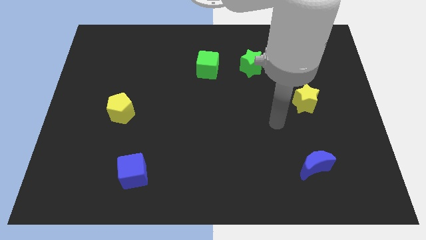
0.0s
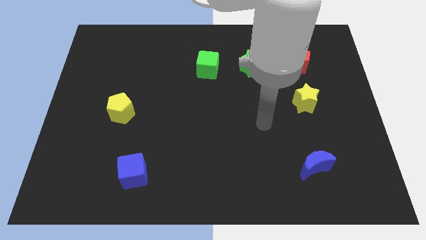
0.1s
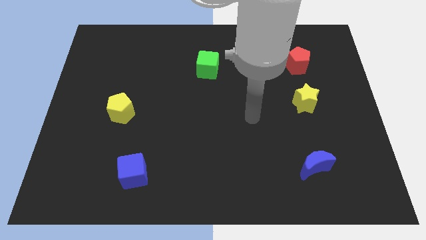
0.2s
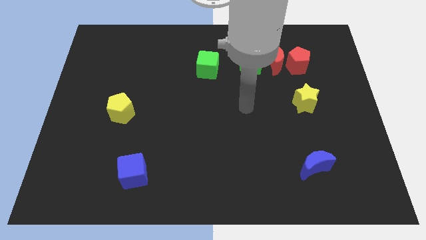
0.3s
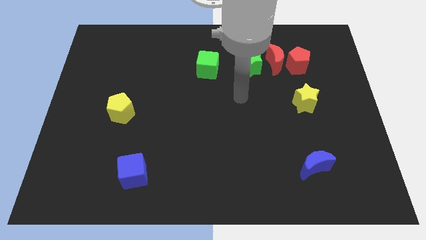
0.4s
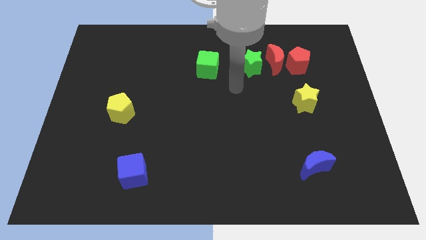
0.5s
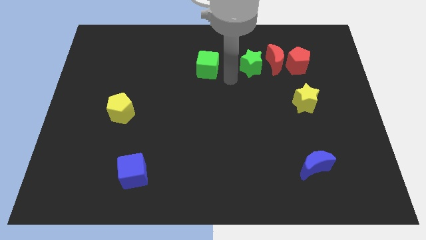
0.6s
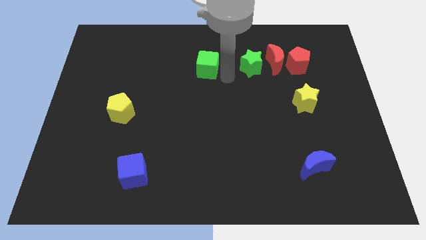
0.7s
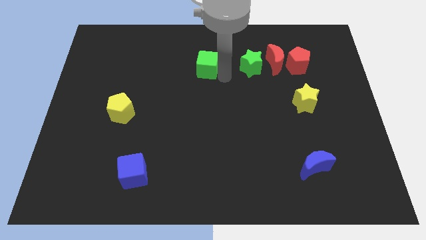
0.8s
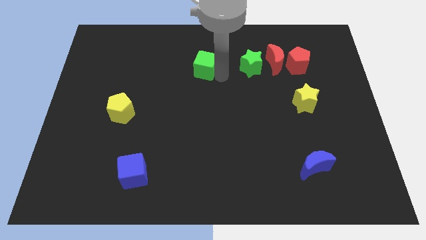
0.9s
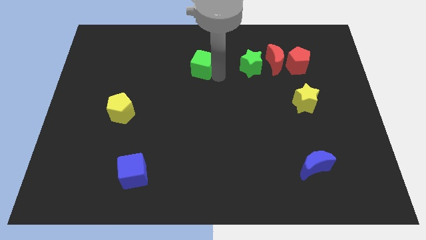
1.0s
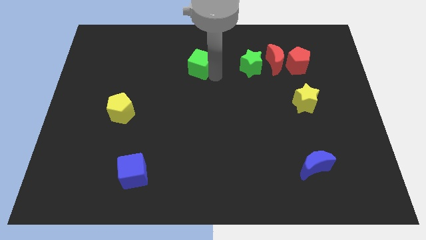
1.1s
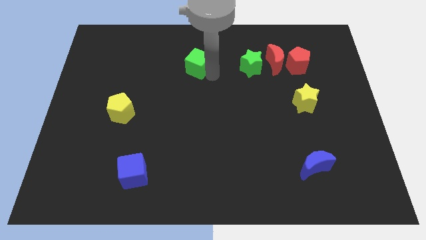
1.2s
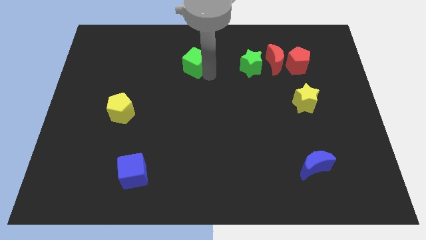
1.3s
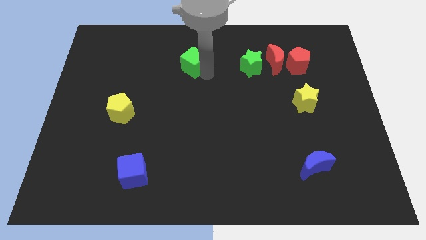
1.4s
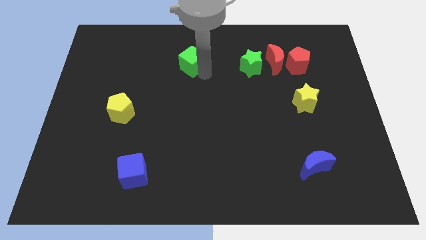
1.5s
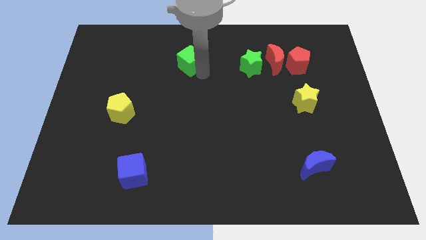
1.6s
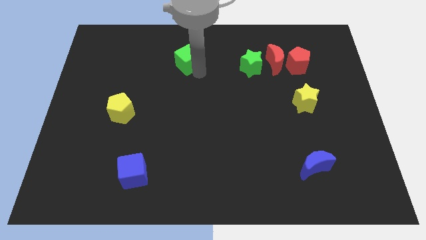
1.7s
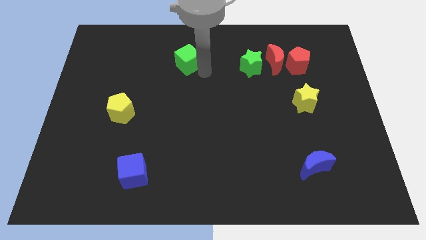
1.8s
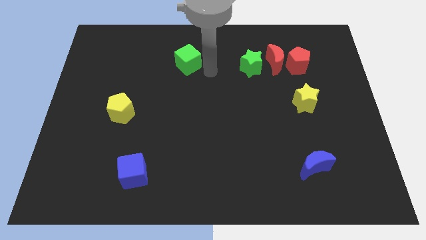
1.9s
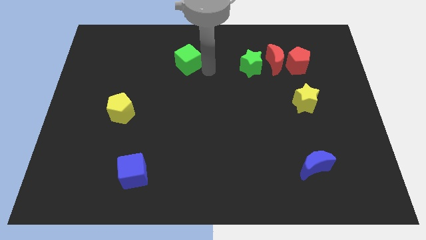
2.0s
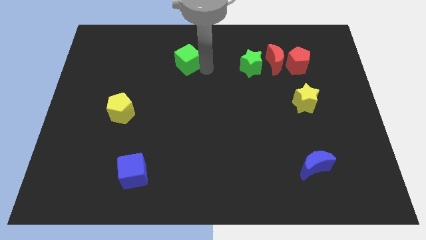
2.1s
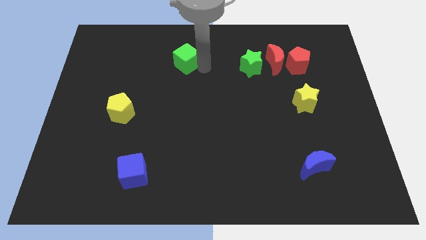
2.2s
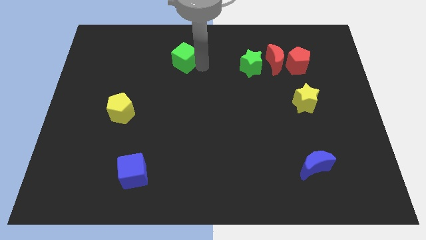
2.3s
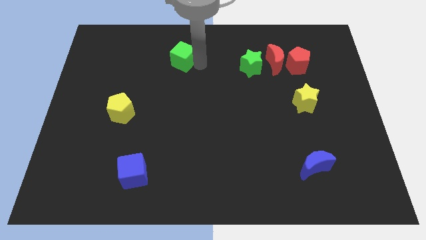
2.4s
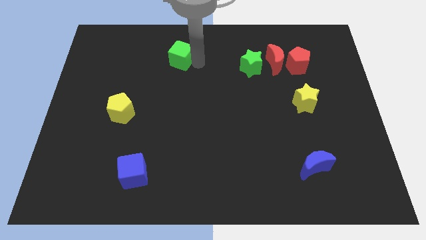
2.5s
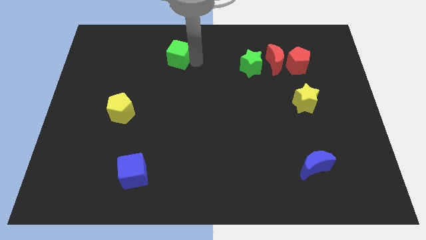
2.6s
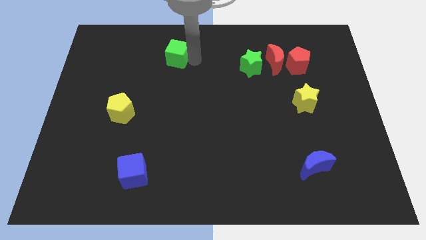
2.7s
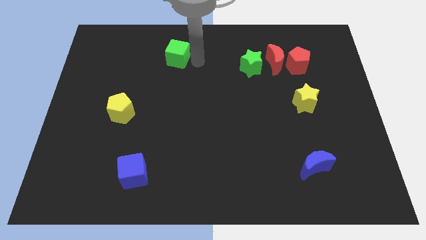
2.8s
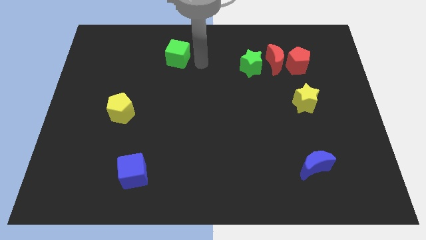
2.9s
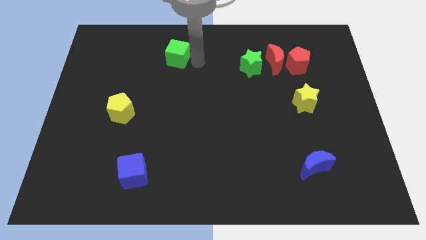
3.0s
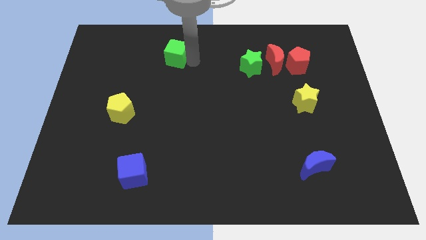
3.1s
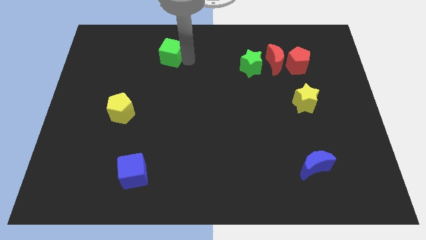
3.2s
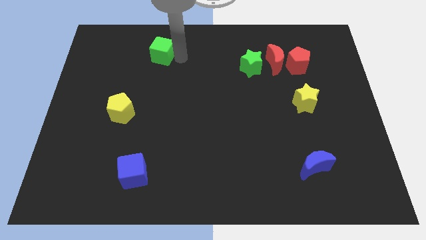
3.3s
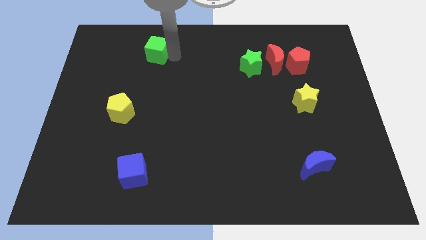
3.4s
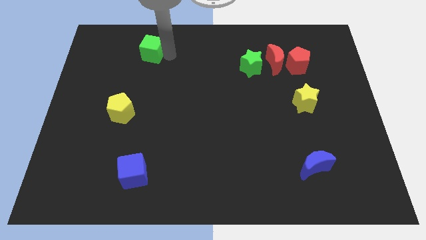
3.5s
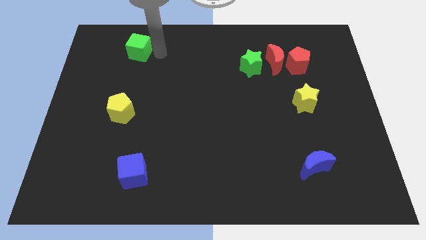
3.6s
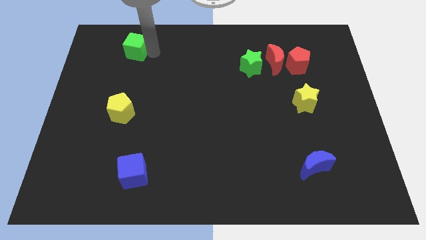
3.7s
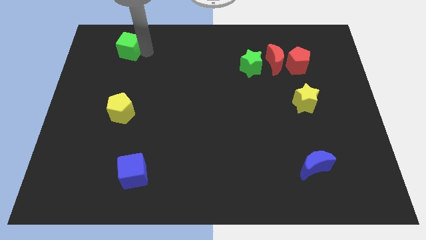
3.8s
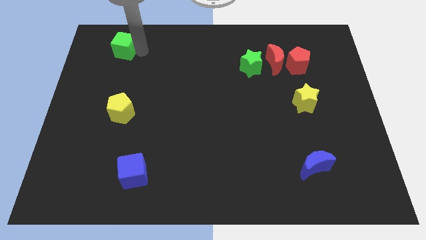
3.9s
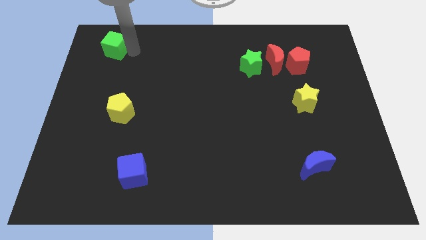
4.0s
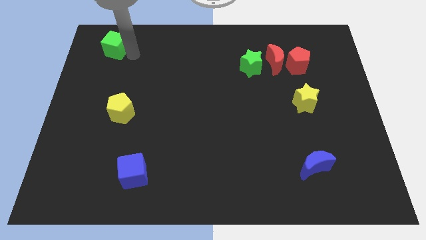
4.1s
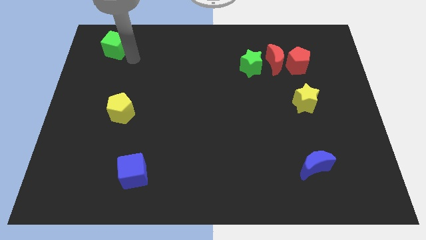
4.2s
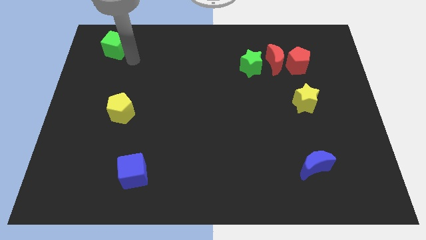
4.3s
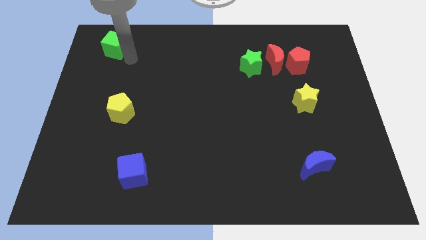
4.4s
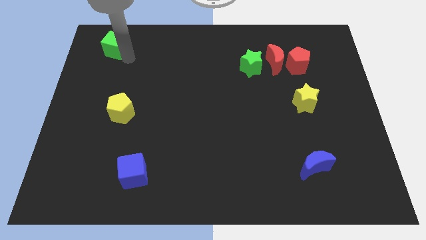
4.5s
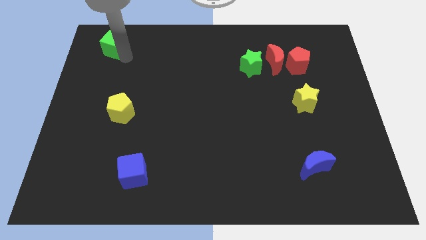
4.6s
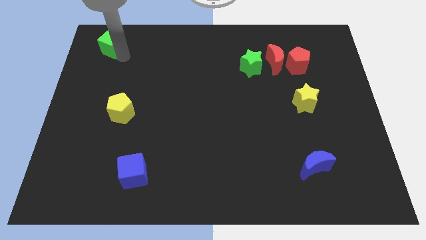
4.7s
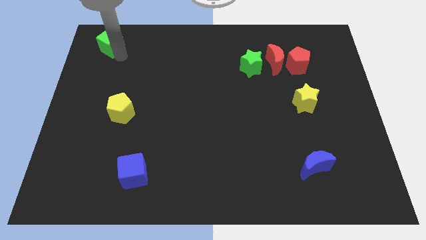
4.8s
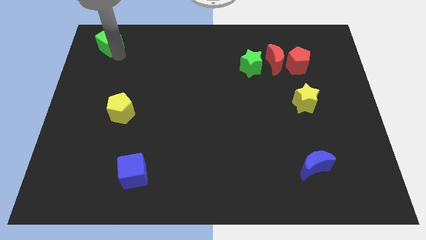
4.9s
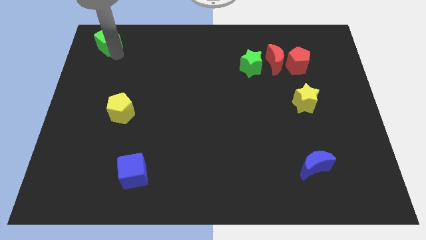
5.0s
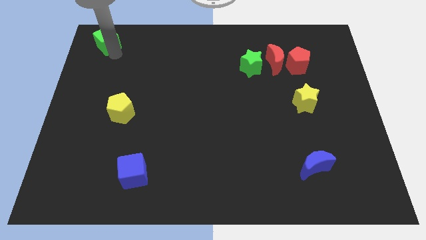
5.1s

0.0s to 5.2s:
slide the green cube to the top left of the board

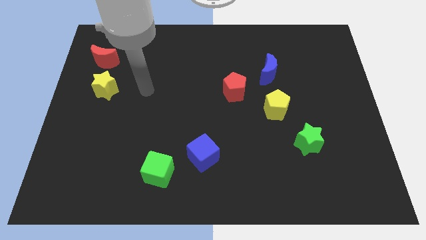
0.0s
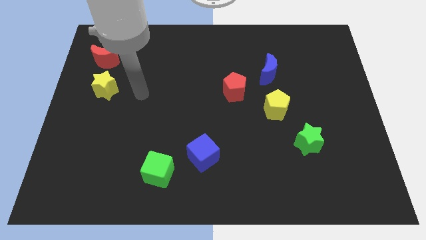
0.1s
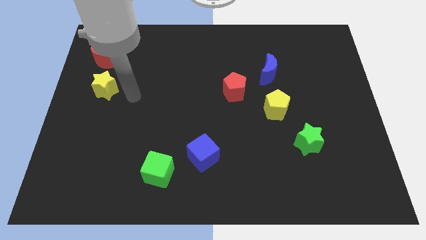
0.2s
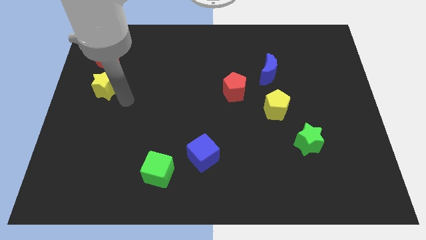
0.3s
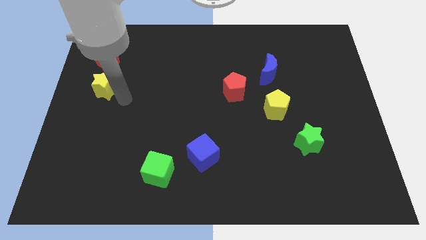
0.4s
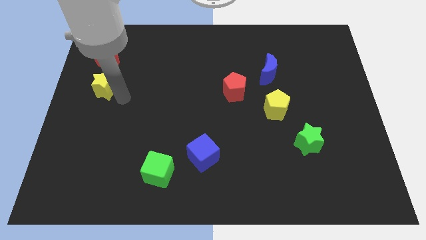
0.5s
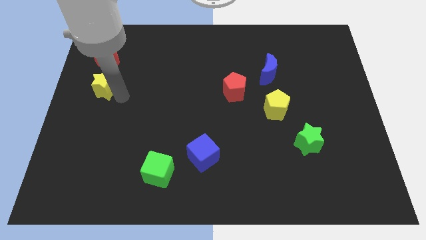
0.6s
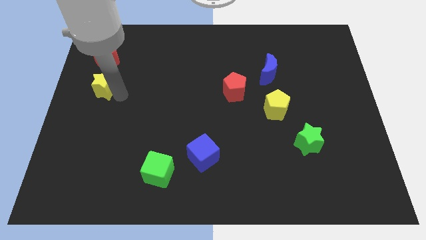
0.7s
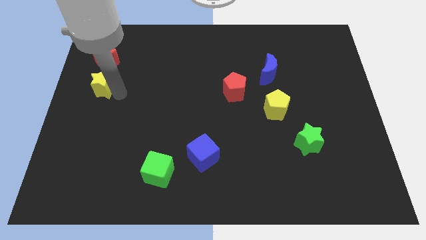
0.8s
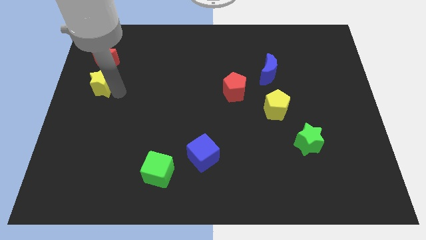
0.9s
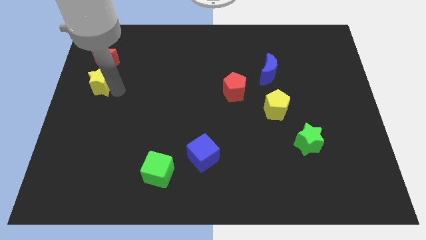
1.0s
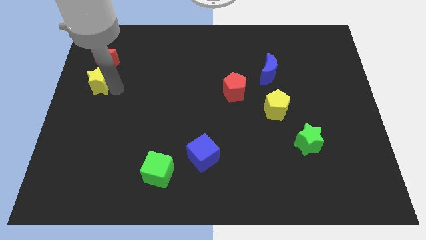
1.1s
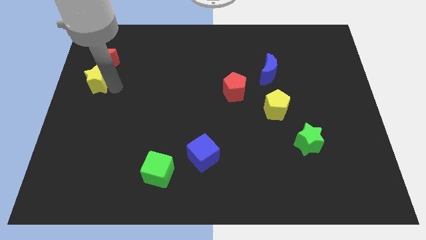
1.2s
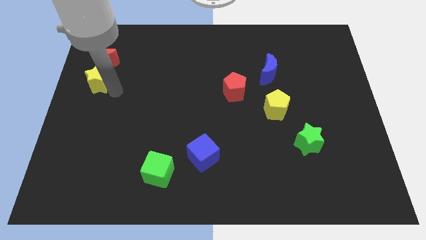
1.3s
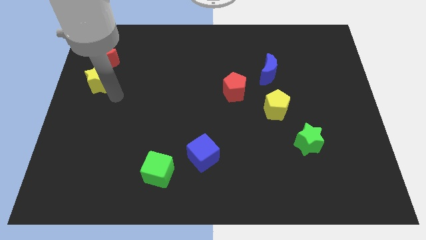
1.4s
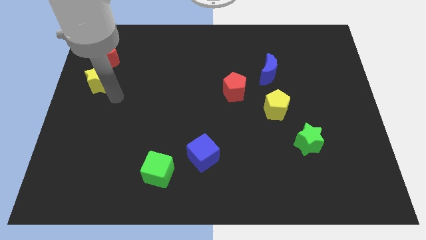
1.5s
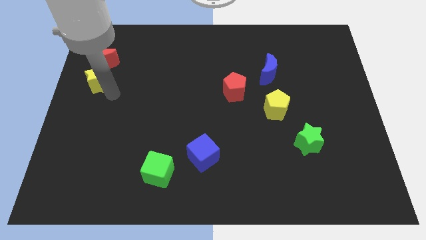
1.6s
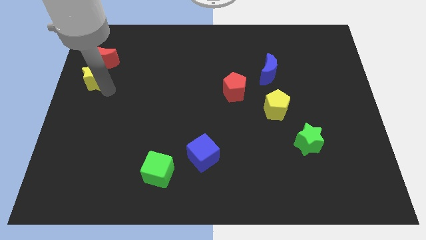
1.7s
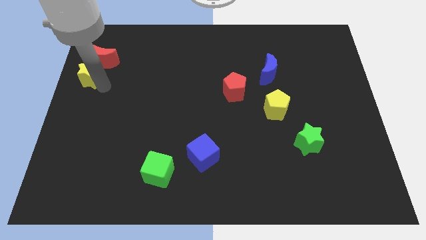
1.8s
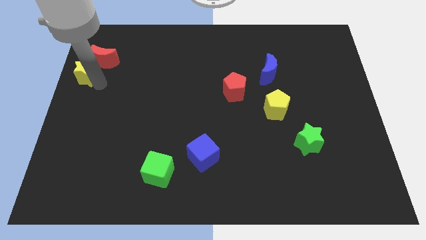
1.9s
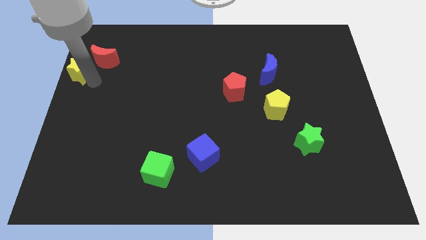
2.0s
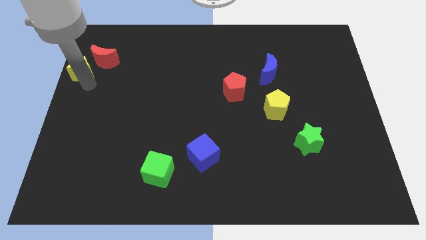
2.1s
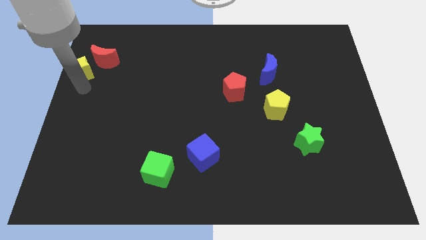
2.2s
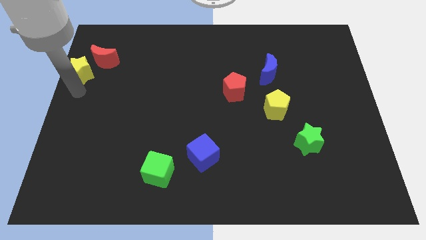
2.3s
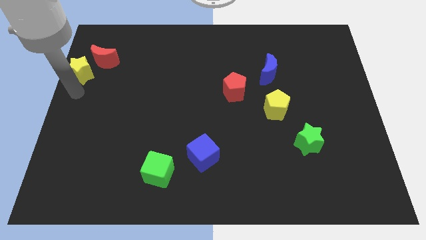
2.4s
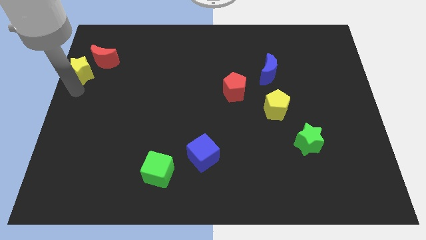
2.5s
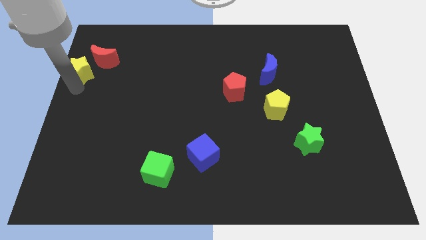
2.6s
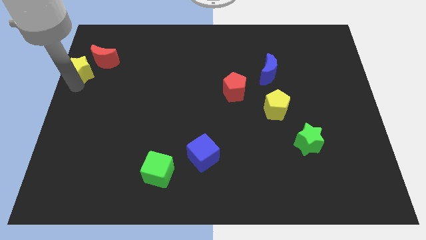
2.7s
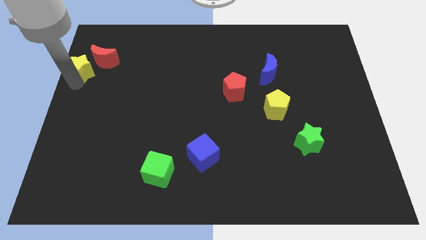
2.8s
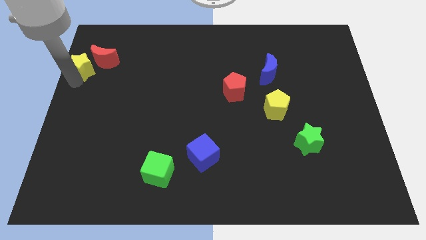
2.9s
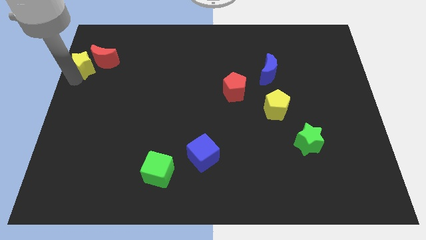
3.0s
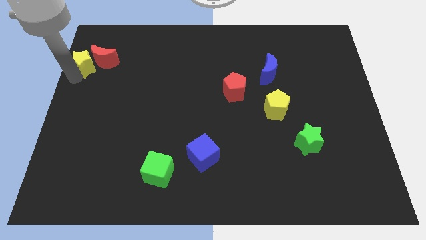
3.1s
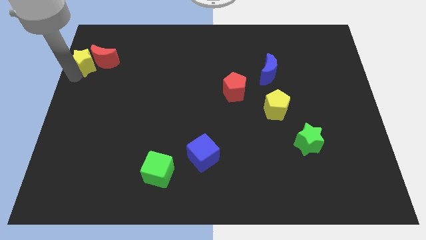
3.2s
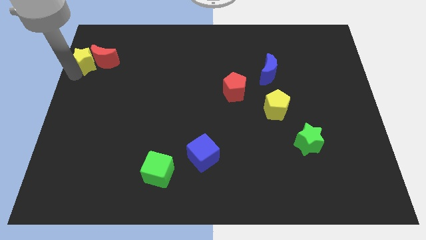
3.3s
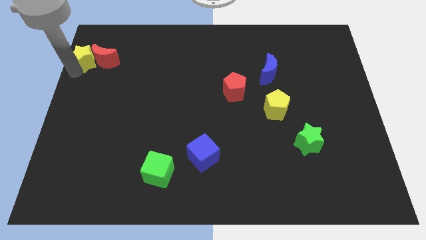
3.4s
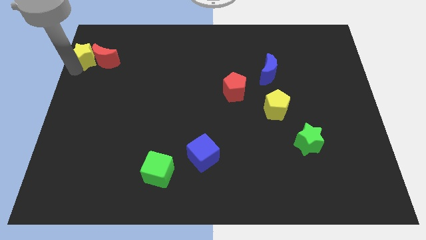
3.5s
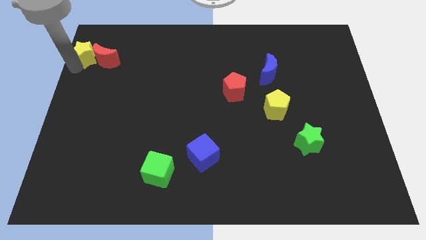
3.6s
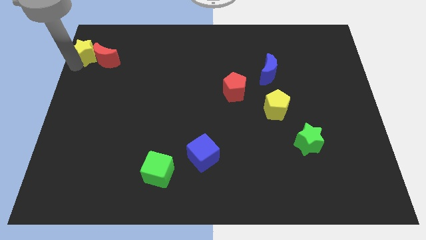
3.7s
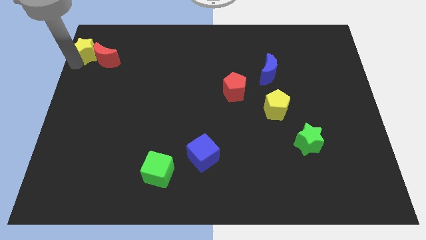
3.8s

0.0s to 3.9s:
put the yellow star to the top left of the board
